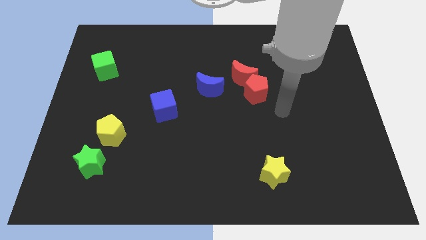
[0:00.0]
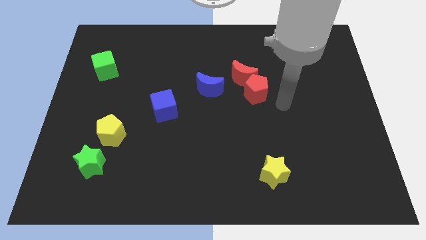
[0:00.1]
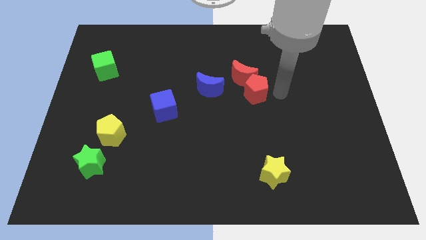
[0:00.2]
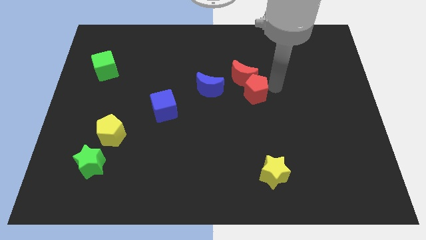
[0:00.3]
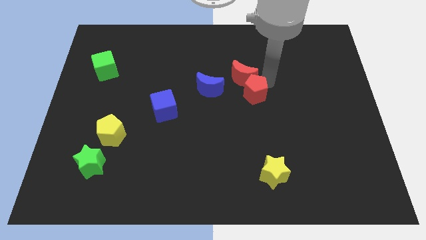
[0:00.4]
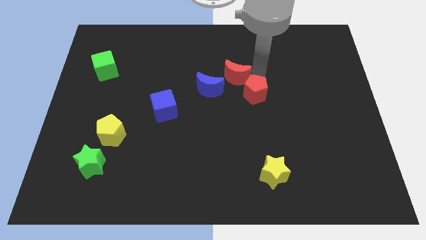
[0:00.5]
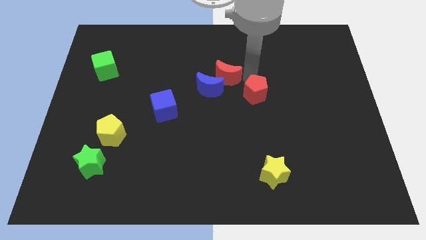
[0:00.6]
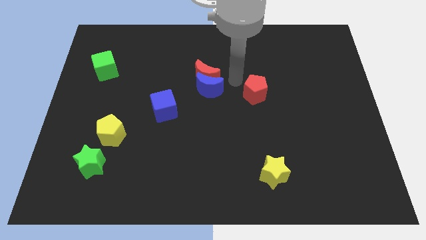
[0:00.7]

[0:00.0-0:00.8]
separate the red pentagon from the red moon

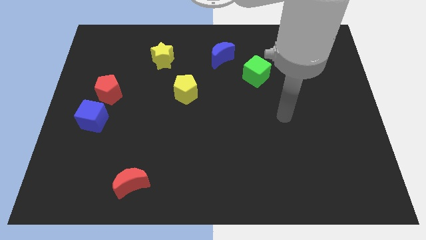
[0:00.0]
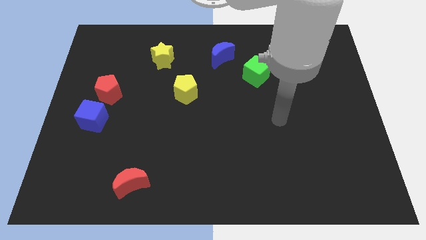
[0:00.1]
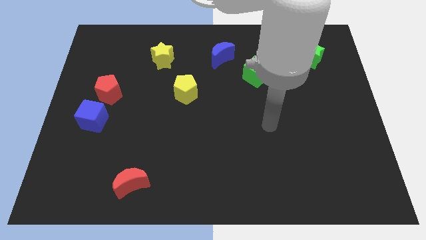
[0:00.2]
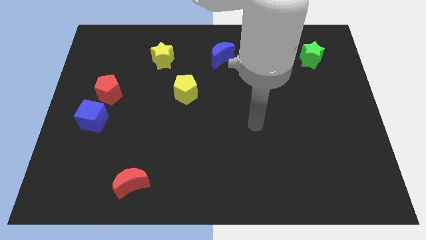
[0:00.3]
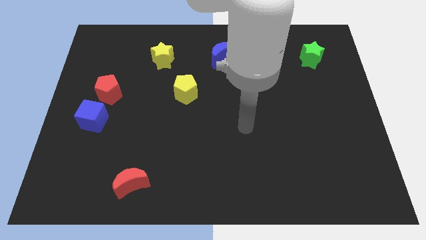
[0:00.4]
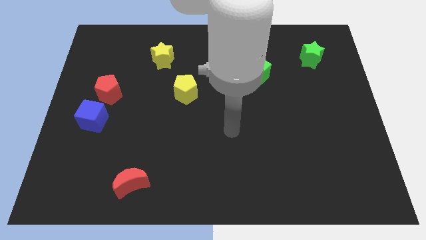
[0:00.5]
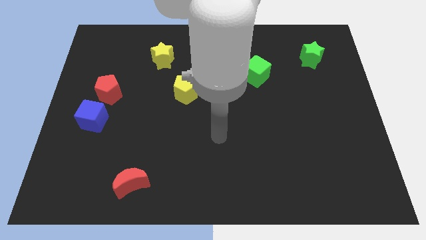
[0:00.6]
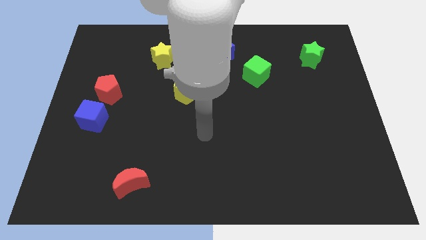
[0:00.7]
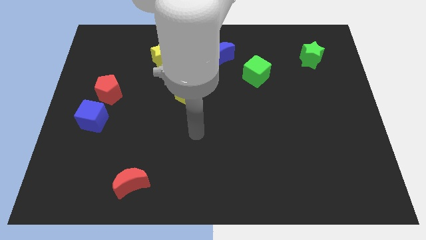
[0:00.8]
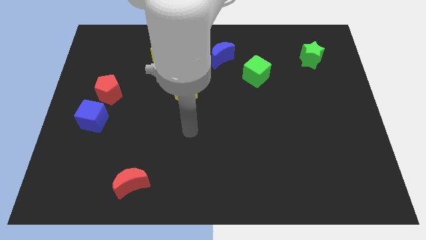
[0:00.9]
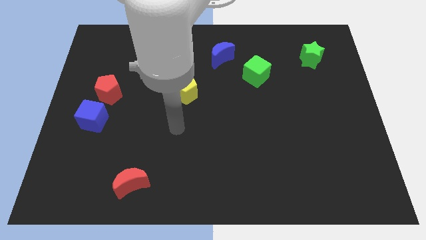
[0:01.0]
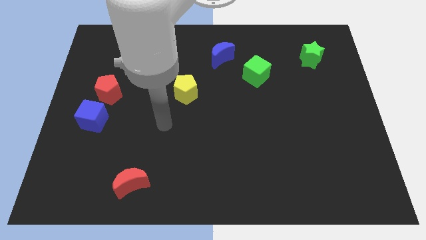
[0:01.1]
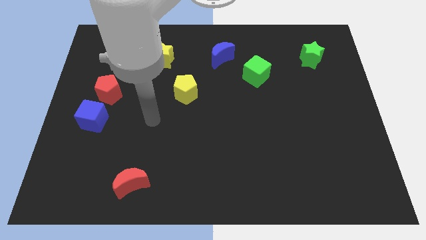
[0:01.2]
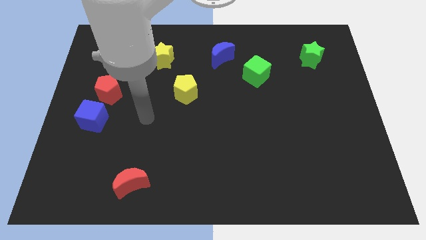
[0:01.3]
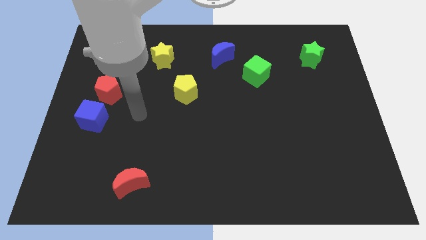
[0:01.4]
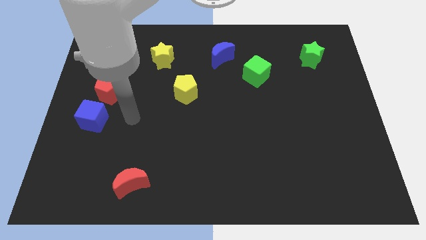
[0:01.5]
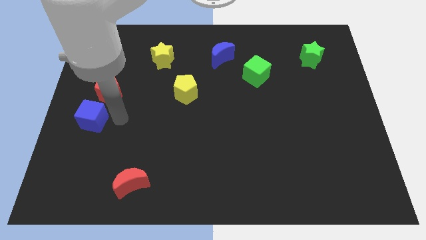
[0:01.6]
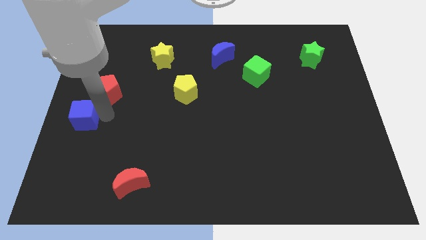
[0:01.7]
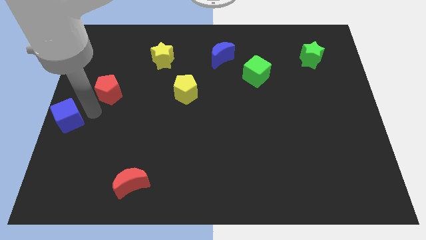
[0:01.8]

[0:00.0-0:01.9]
move the red pentagon away from the blue cube

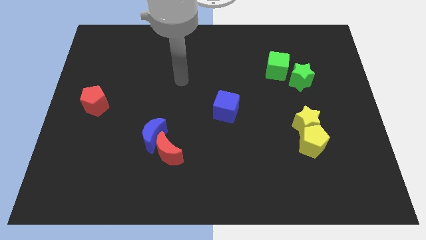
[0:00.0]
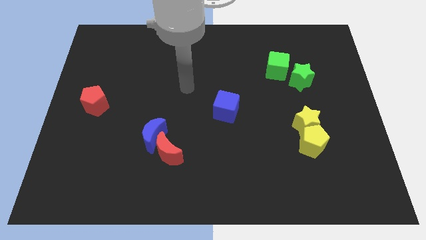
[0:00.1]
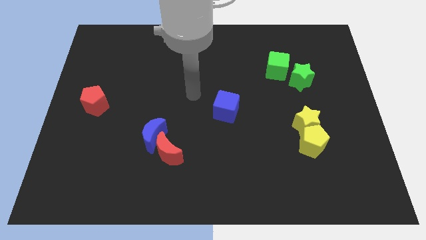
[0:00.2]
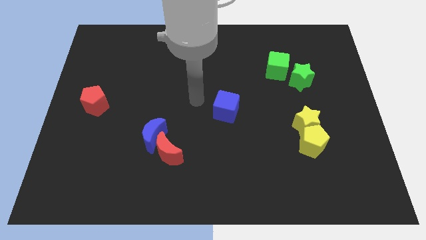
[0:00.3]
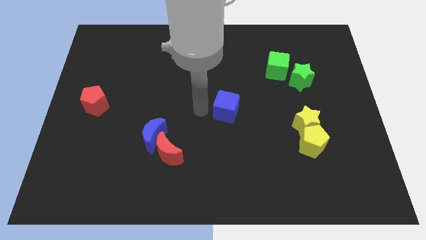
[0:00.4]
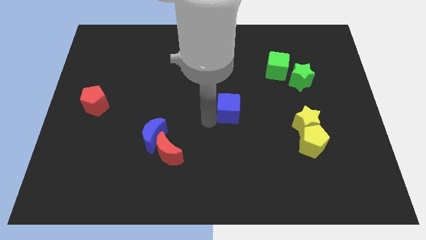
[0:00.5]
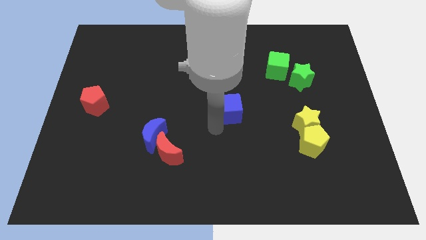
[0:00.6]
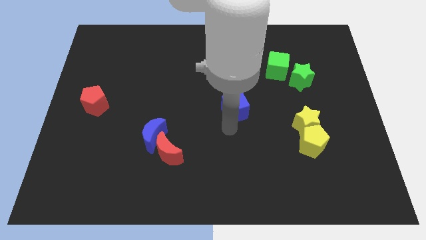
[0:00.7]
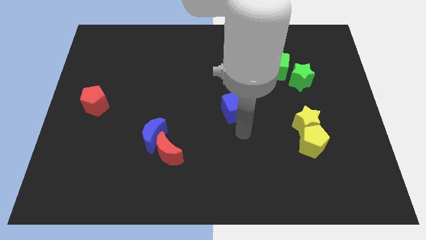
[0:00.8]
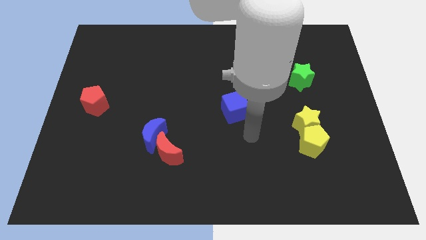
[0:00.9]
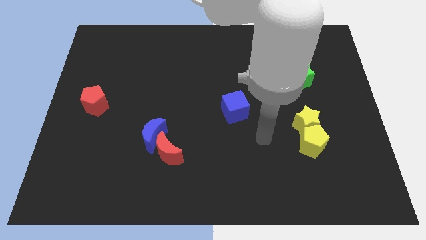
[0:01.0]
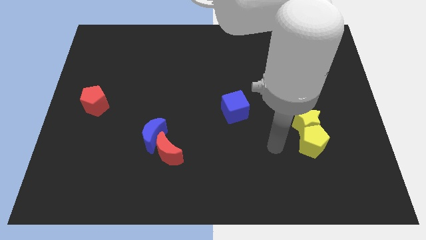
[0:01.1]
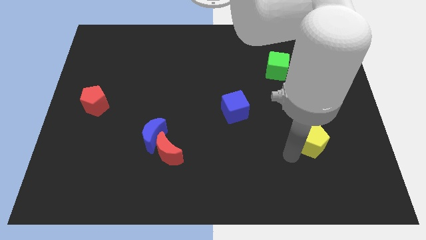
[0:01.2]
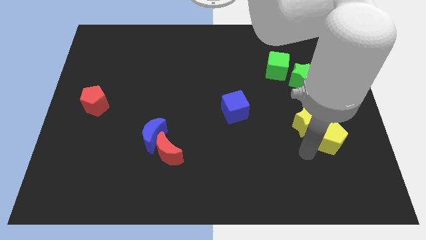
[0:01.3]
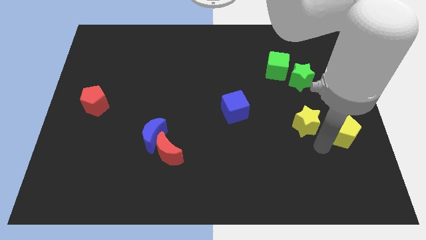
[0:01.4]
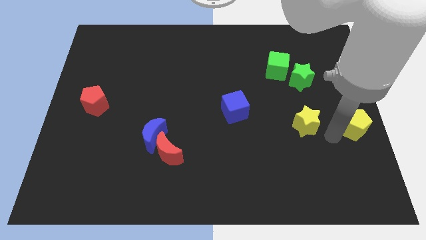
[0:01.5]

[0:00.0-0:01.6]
move the yellow star away from the yellow pentagon

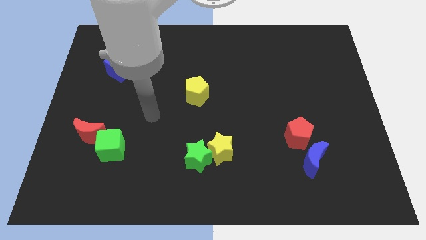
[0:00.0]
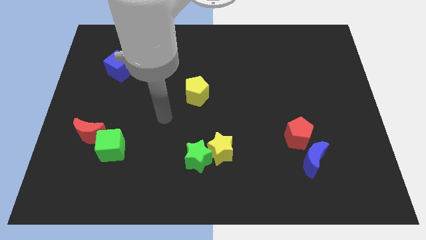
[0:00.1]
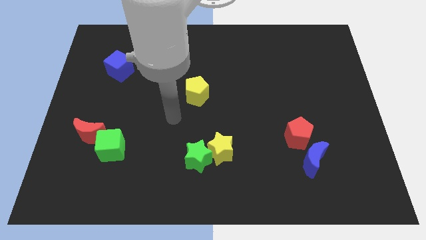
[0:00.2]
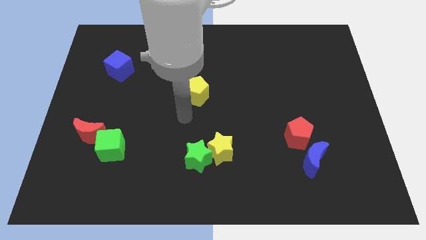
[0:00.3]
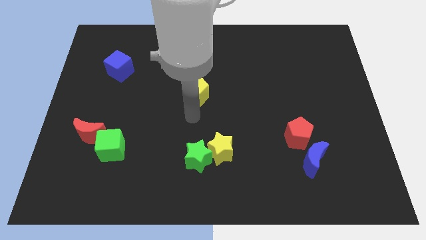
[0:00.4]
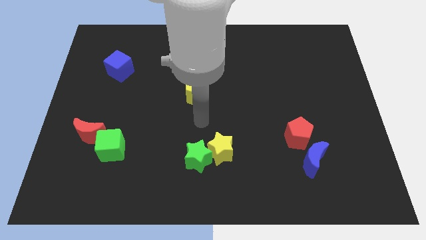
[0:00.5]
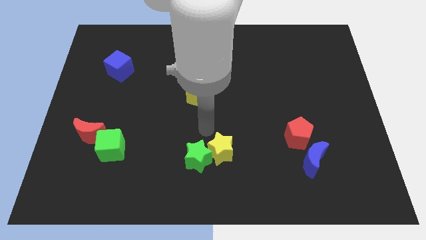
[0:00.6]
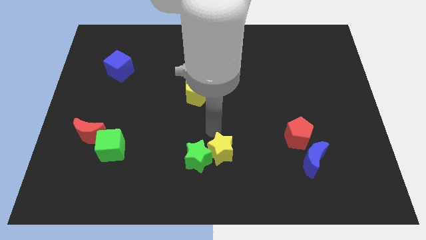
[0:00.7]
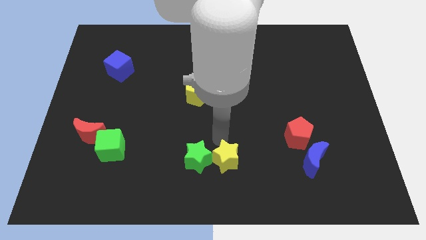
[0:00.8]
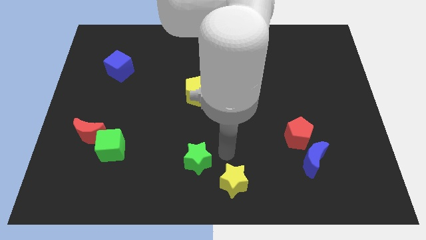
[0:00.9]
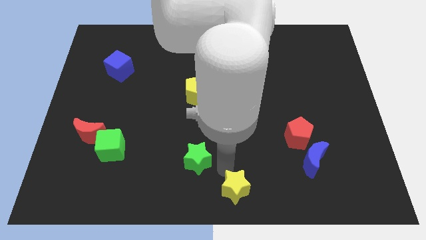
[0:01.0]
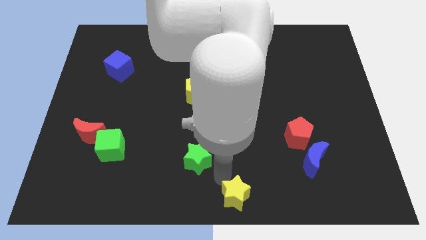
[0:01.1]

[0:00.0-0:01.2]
pull the green star apart from the yellow star

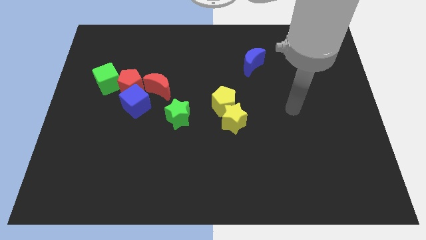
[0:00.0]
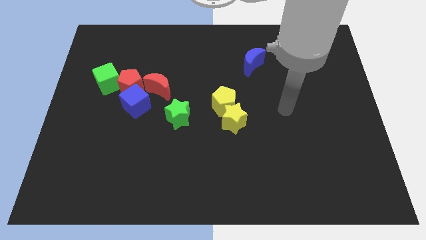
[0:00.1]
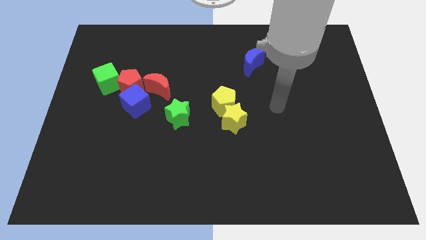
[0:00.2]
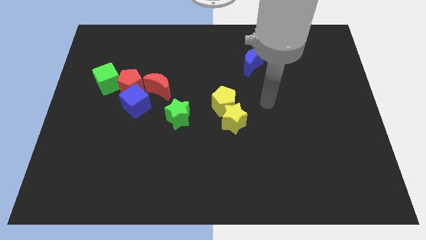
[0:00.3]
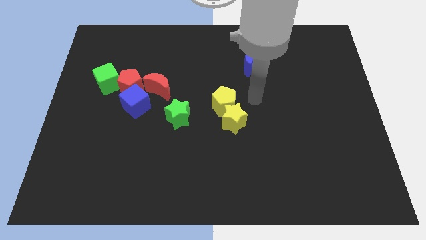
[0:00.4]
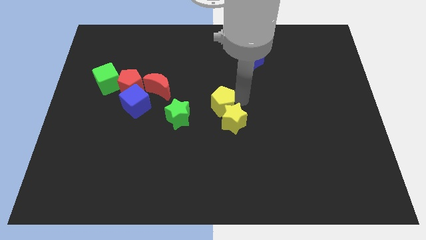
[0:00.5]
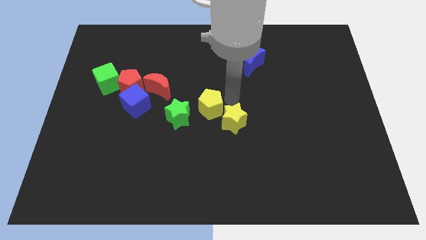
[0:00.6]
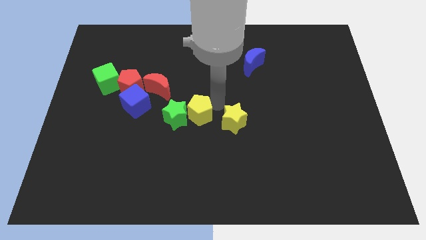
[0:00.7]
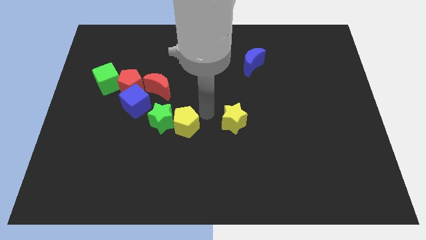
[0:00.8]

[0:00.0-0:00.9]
separate the yellow star from the yellow pentagon

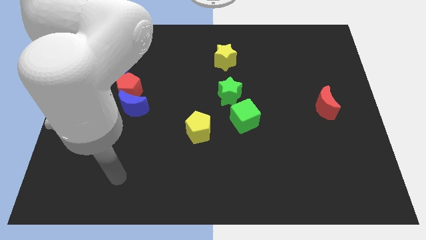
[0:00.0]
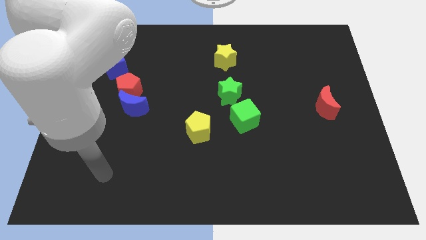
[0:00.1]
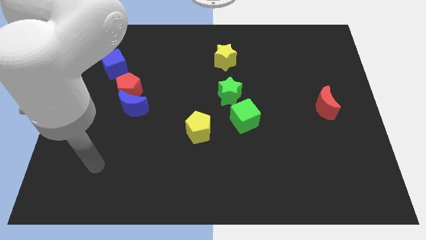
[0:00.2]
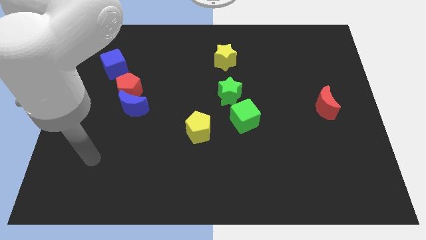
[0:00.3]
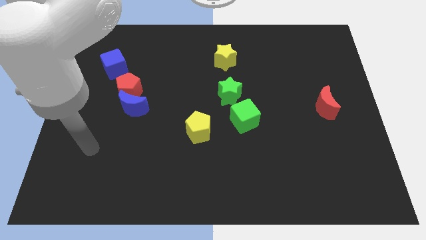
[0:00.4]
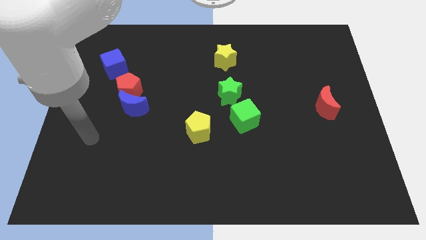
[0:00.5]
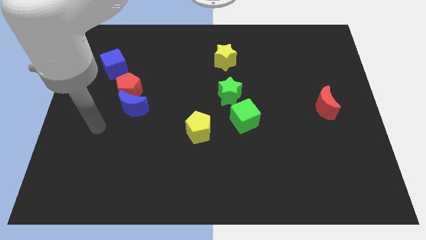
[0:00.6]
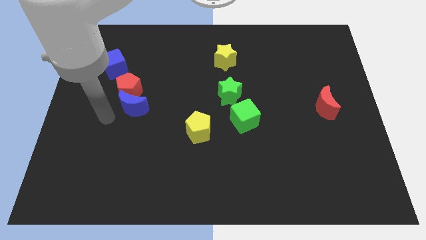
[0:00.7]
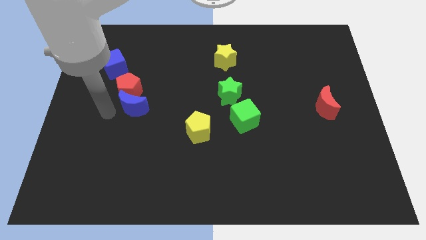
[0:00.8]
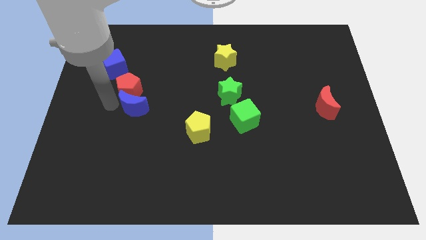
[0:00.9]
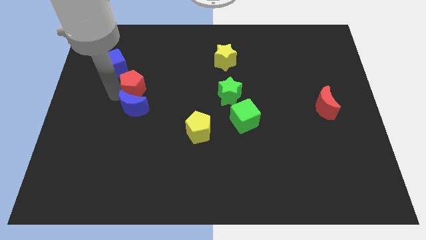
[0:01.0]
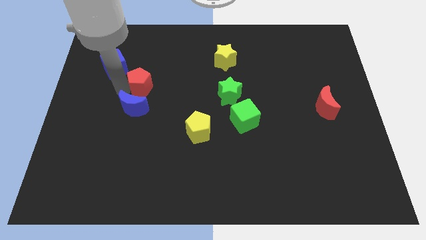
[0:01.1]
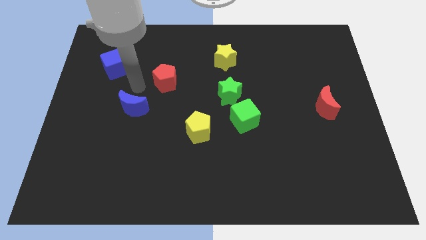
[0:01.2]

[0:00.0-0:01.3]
move the blue moon away from the red pentagon

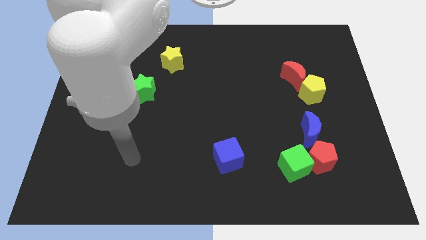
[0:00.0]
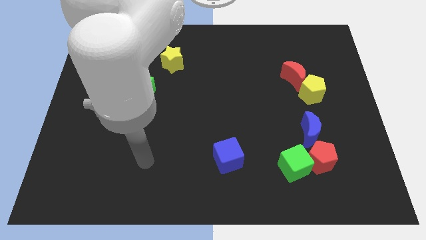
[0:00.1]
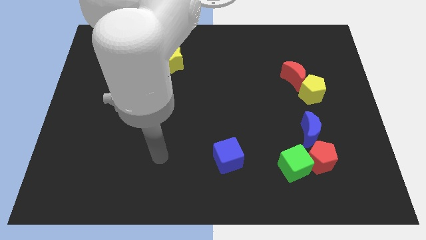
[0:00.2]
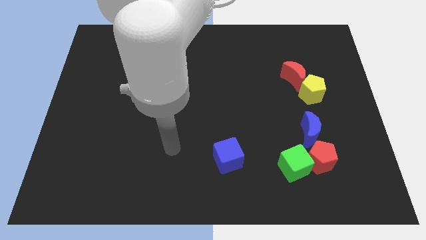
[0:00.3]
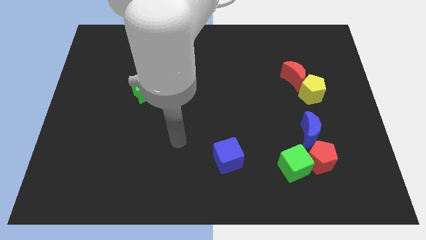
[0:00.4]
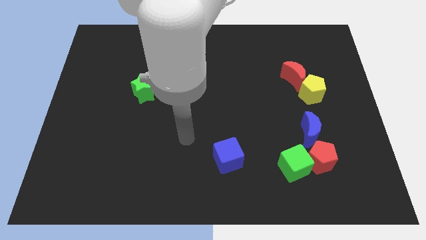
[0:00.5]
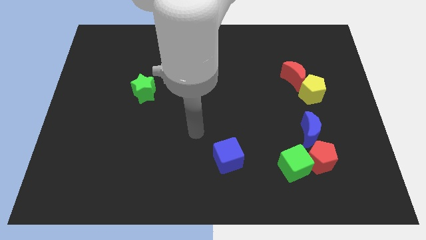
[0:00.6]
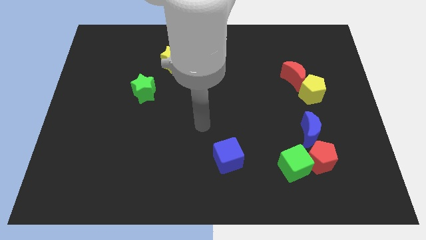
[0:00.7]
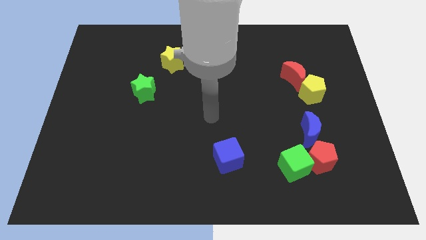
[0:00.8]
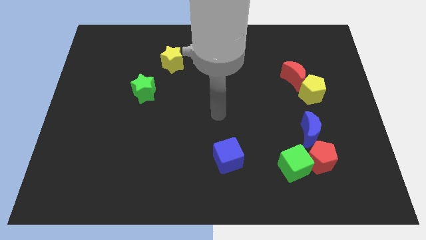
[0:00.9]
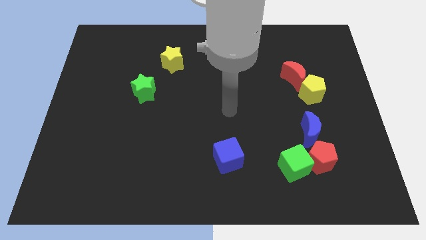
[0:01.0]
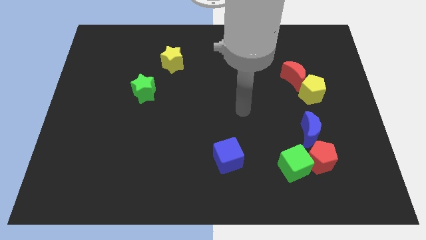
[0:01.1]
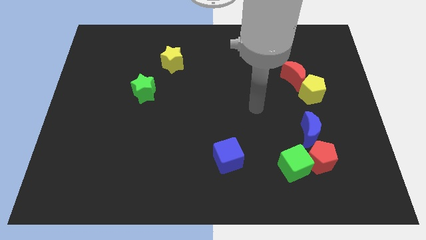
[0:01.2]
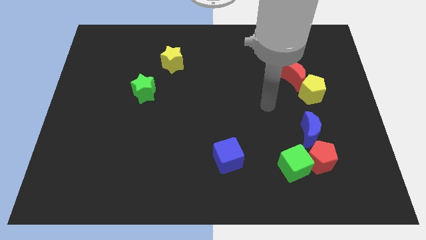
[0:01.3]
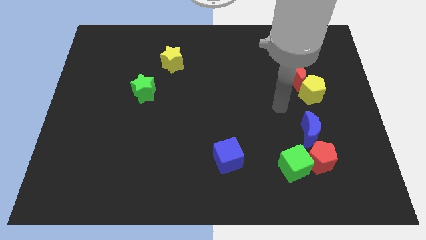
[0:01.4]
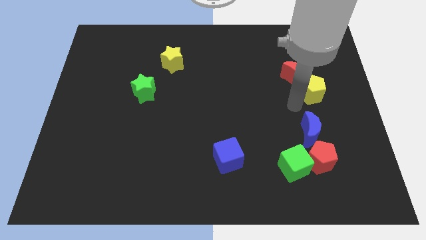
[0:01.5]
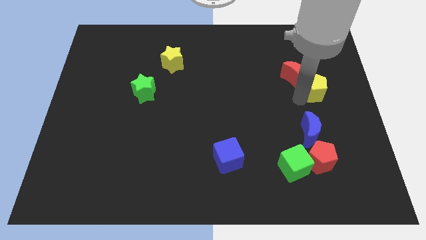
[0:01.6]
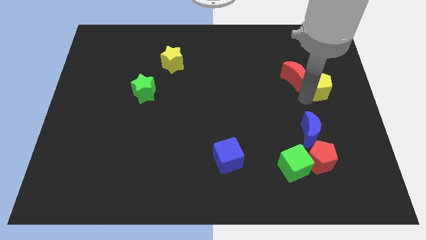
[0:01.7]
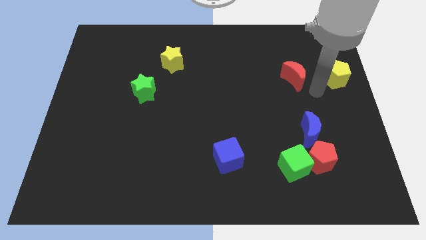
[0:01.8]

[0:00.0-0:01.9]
pull the red moon apart from the yellow pentagon
